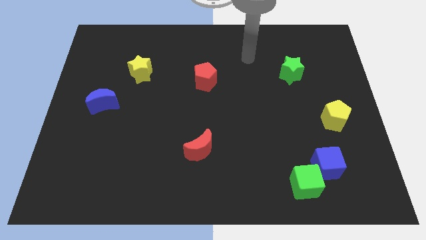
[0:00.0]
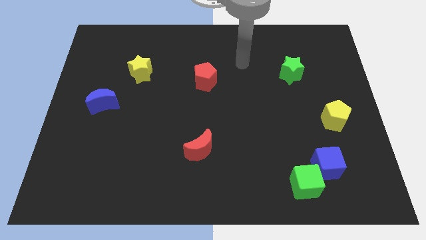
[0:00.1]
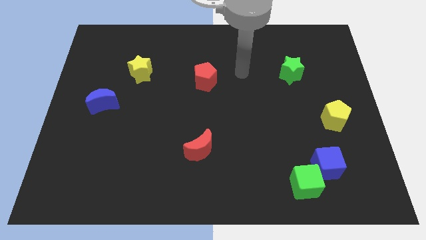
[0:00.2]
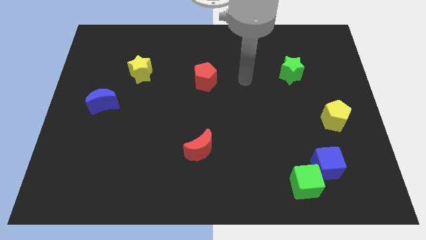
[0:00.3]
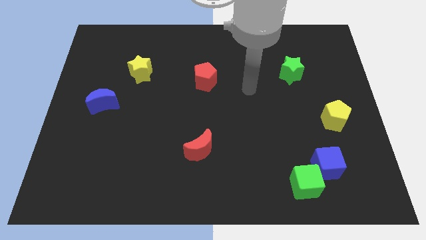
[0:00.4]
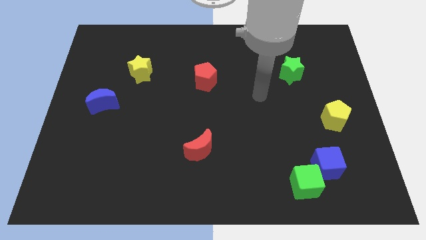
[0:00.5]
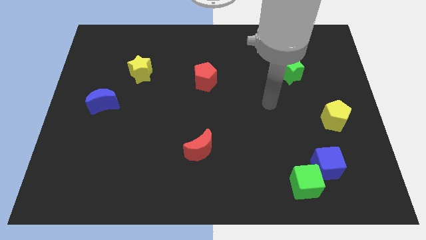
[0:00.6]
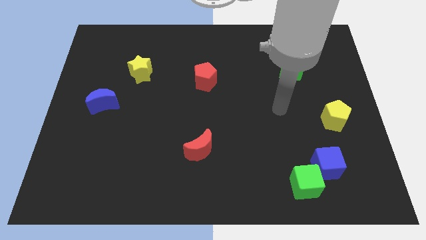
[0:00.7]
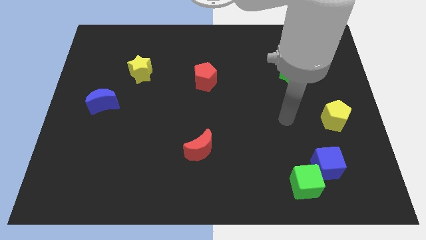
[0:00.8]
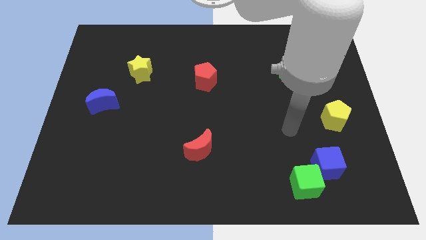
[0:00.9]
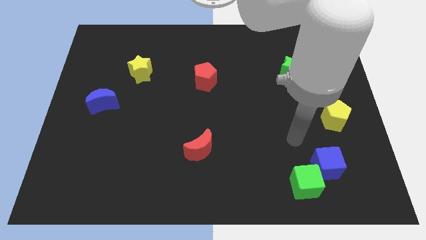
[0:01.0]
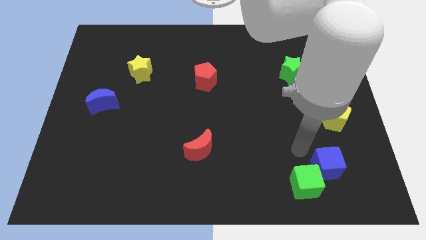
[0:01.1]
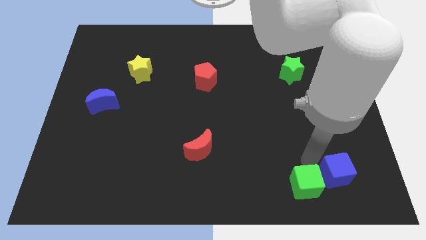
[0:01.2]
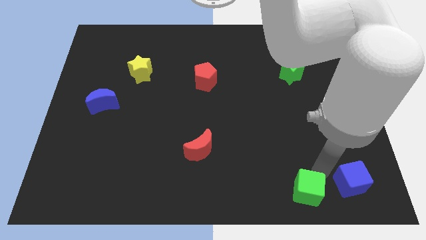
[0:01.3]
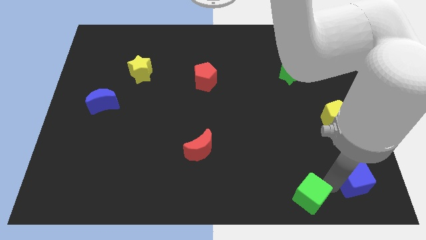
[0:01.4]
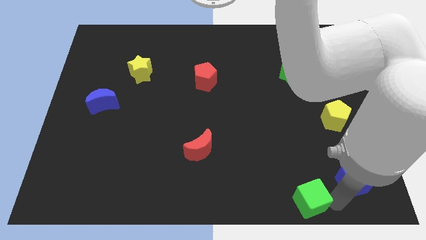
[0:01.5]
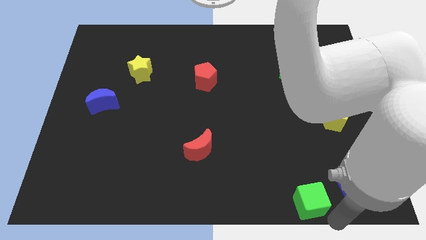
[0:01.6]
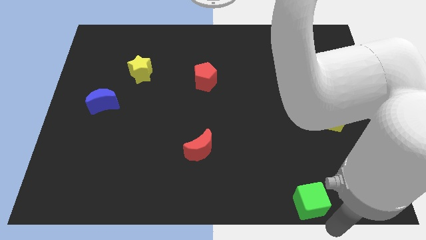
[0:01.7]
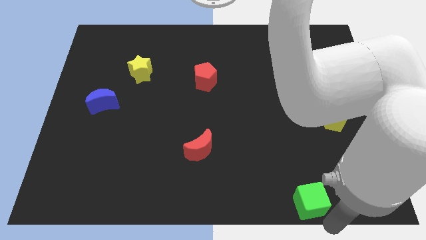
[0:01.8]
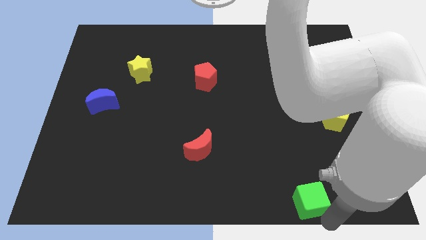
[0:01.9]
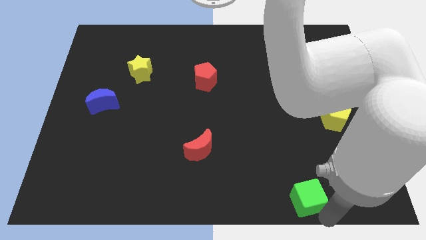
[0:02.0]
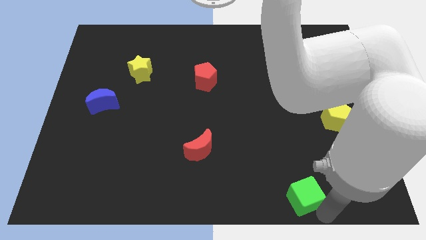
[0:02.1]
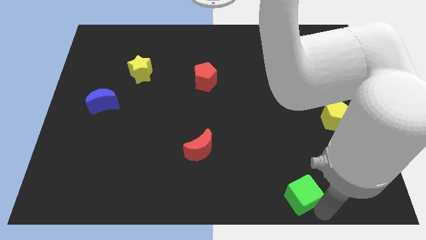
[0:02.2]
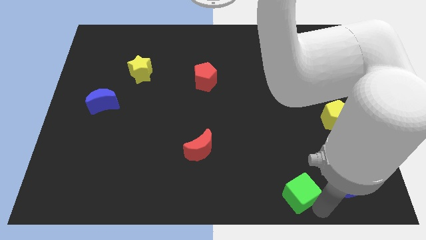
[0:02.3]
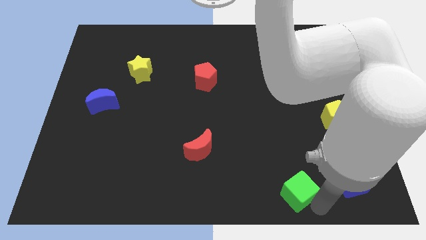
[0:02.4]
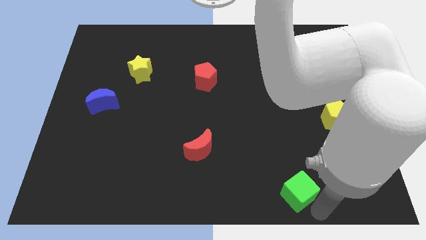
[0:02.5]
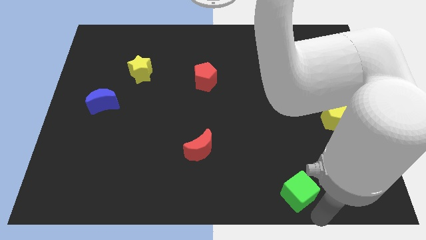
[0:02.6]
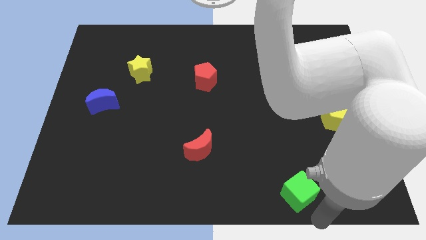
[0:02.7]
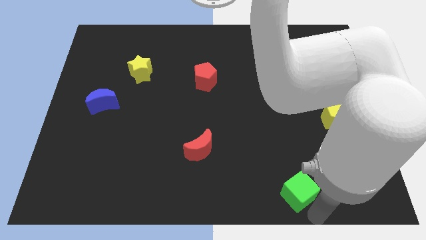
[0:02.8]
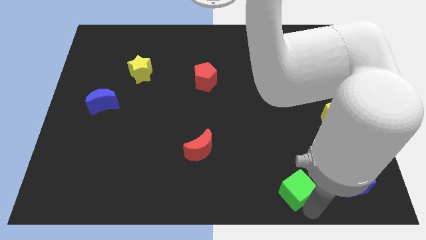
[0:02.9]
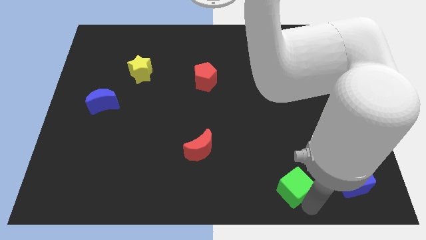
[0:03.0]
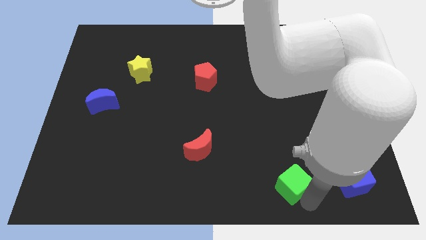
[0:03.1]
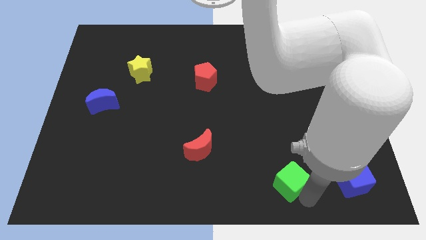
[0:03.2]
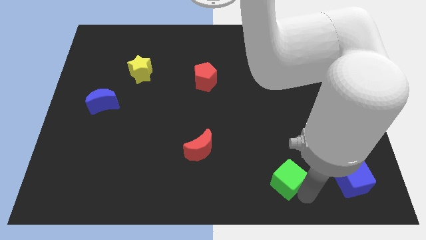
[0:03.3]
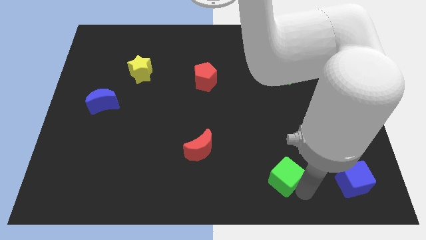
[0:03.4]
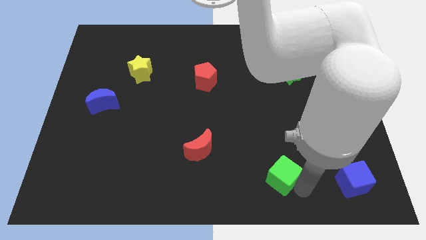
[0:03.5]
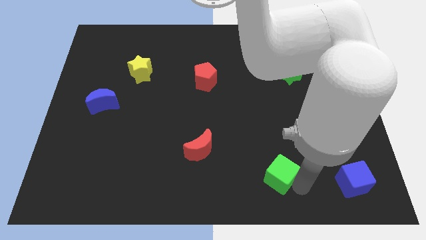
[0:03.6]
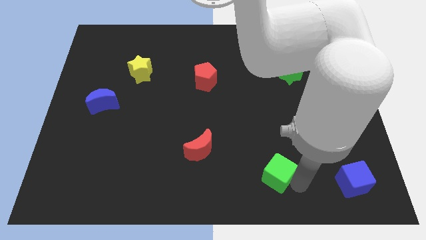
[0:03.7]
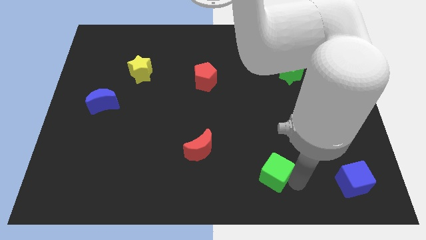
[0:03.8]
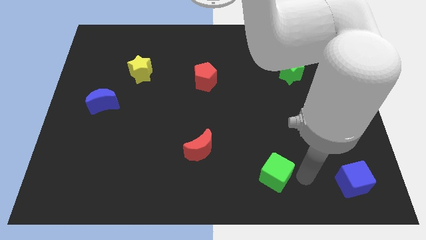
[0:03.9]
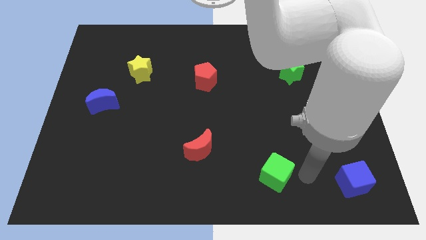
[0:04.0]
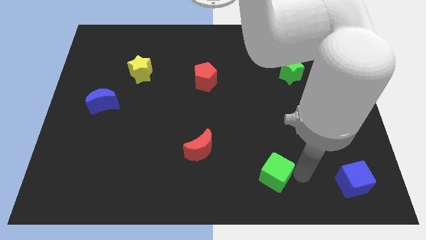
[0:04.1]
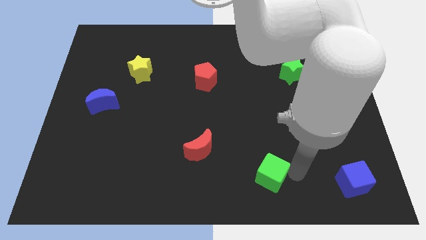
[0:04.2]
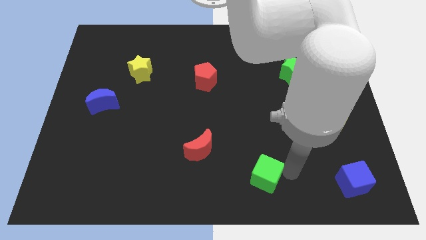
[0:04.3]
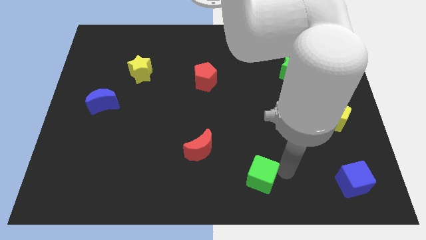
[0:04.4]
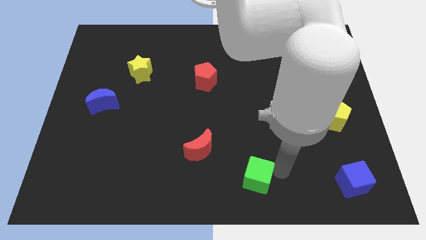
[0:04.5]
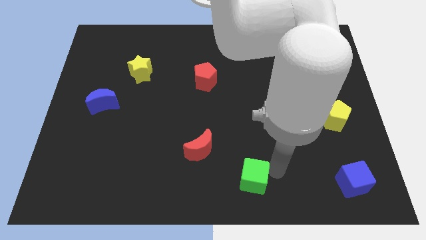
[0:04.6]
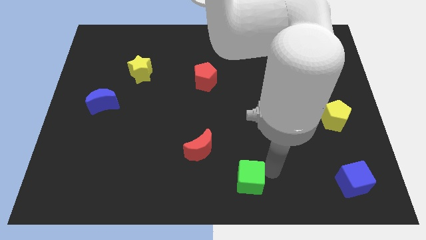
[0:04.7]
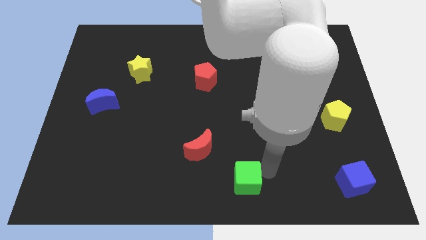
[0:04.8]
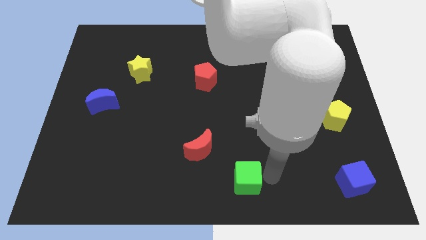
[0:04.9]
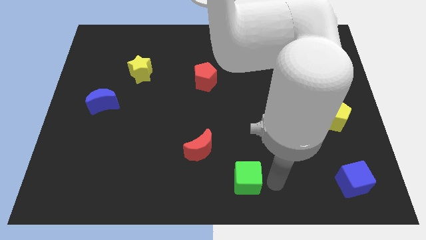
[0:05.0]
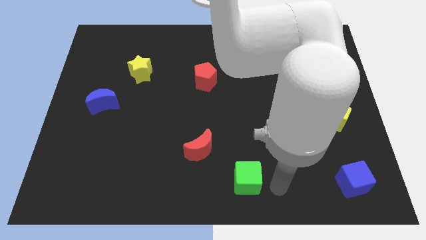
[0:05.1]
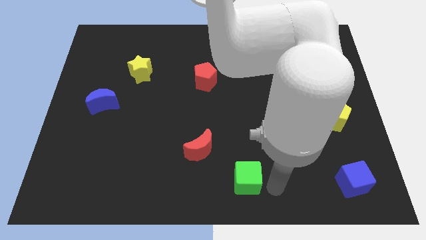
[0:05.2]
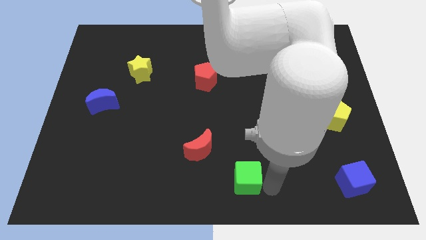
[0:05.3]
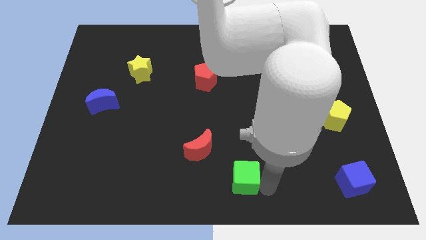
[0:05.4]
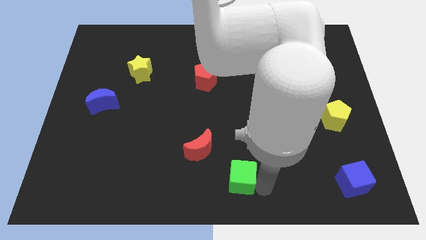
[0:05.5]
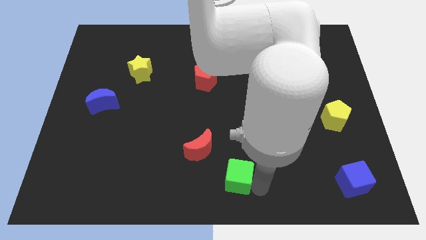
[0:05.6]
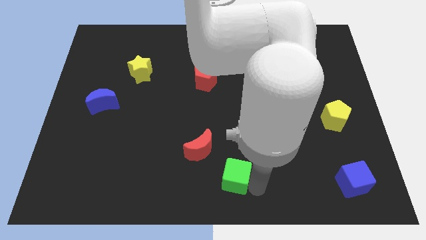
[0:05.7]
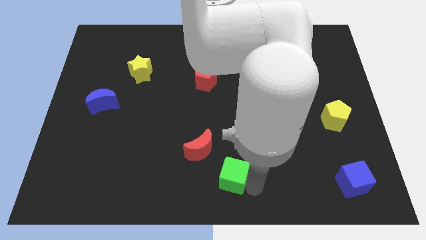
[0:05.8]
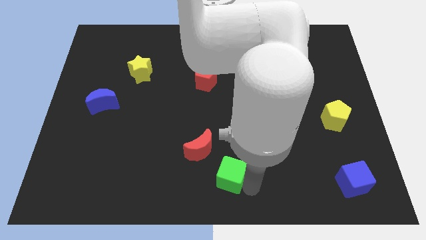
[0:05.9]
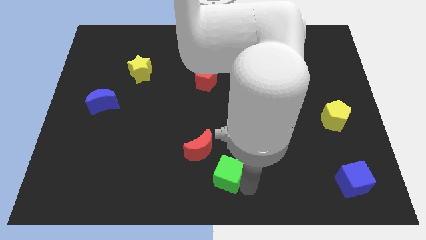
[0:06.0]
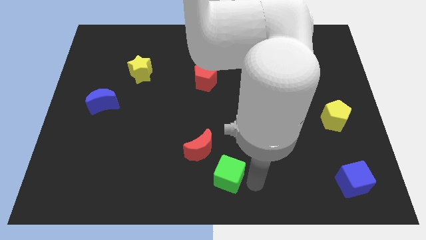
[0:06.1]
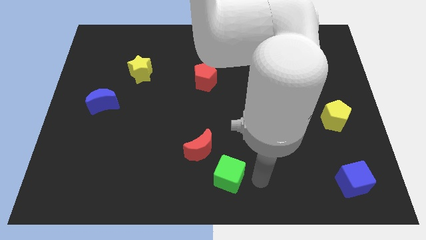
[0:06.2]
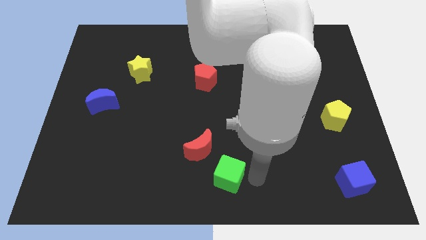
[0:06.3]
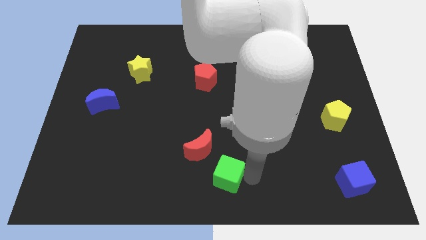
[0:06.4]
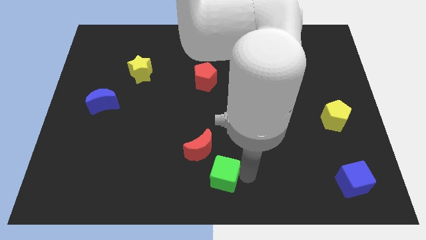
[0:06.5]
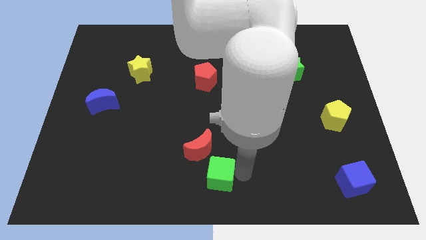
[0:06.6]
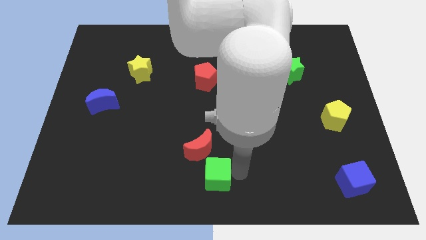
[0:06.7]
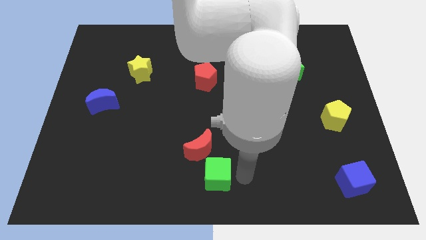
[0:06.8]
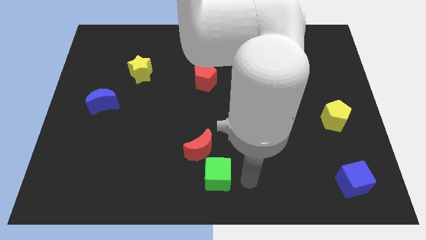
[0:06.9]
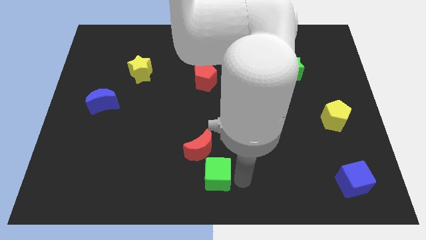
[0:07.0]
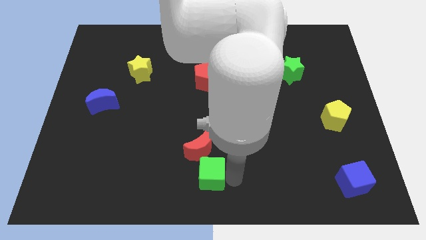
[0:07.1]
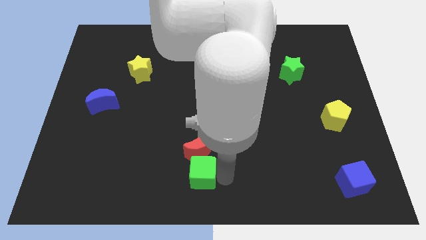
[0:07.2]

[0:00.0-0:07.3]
slide the green cube left

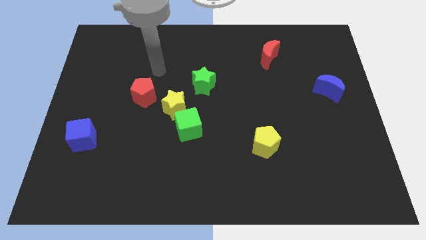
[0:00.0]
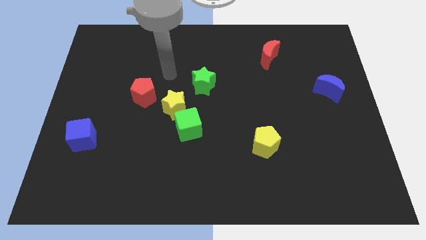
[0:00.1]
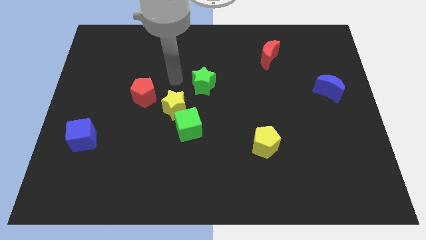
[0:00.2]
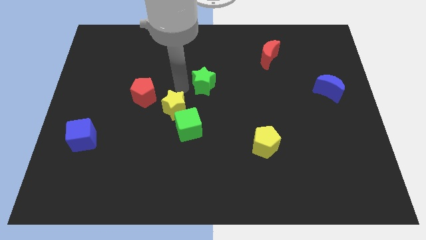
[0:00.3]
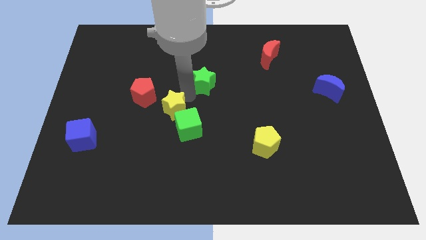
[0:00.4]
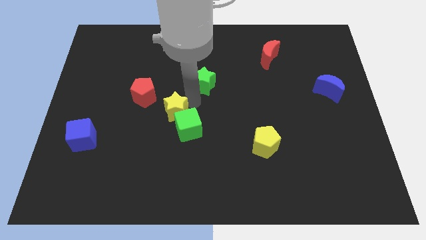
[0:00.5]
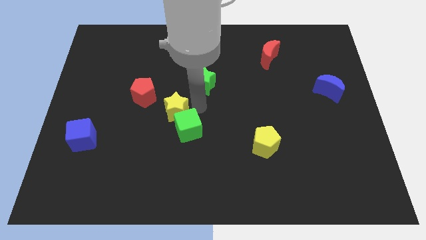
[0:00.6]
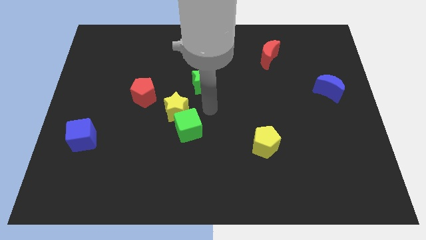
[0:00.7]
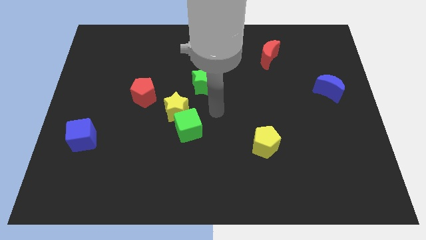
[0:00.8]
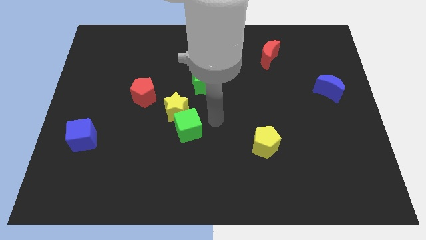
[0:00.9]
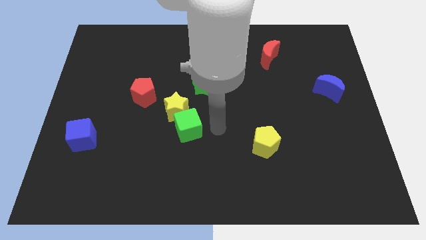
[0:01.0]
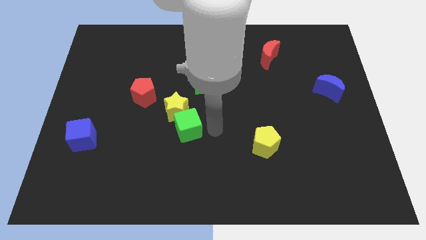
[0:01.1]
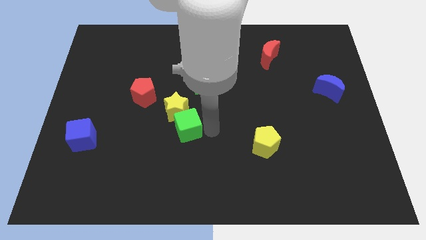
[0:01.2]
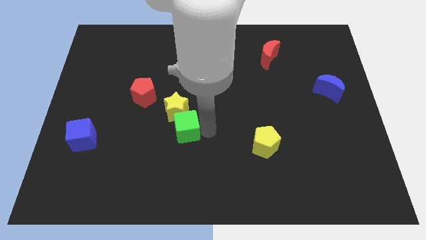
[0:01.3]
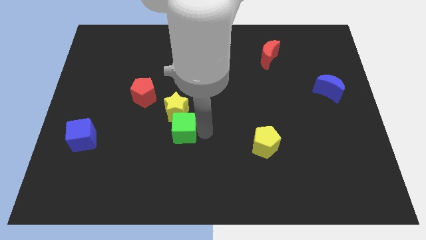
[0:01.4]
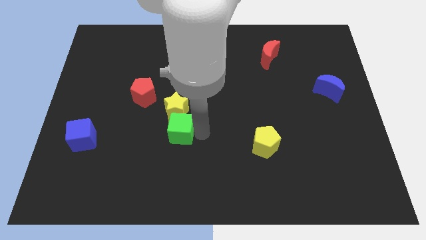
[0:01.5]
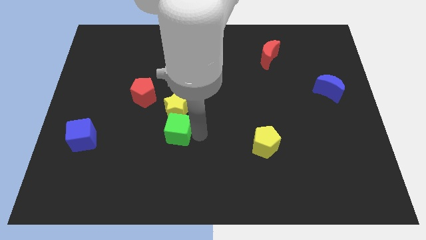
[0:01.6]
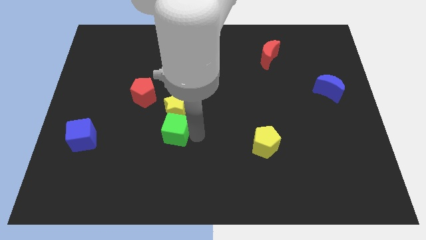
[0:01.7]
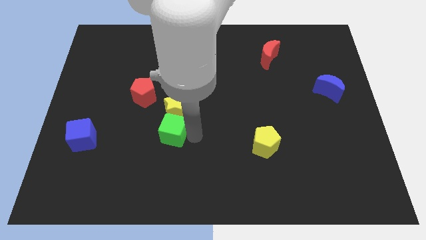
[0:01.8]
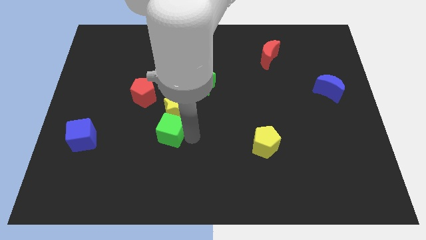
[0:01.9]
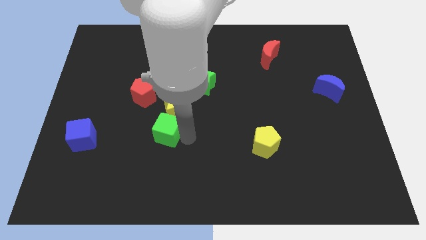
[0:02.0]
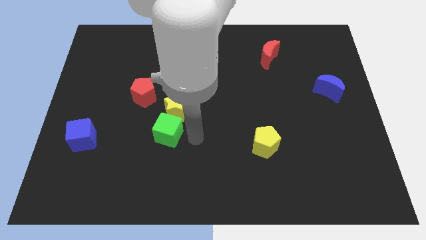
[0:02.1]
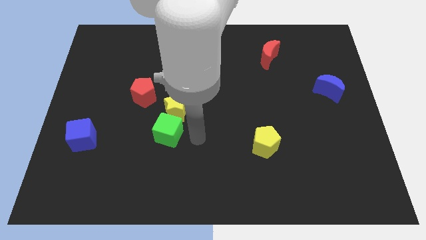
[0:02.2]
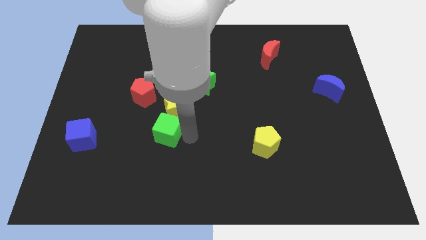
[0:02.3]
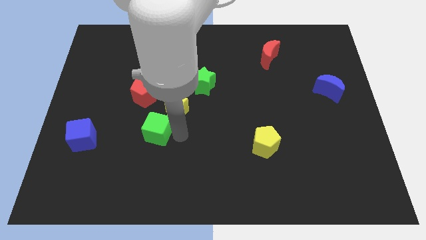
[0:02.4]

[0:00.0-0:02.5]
slightly push the green cube left
